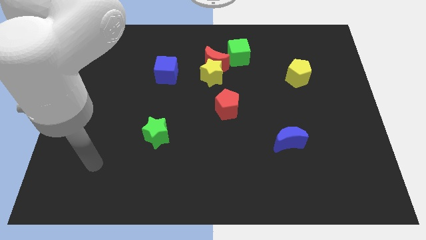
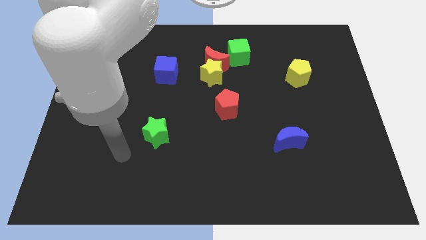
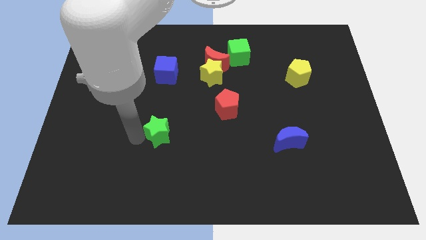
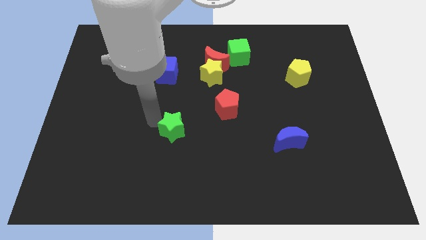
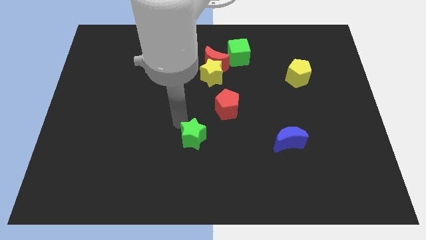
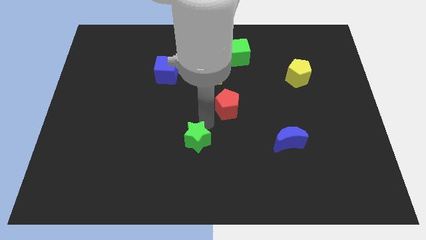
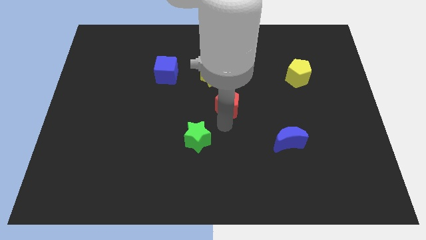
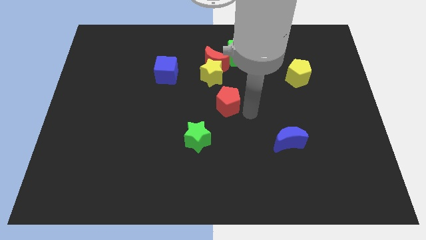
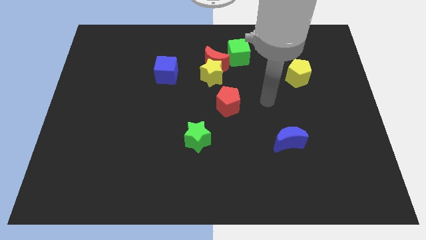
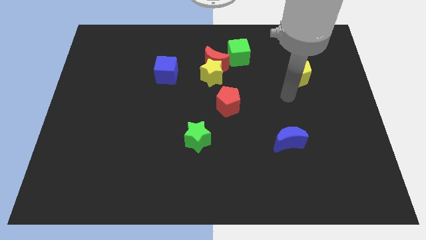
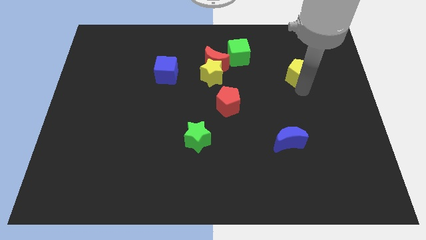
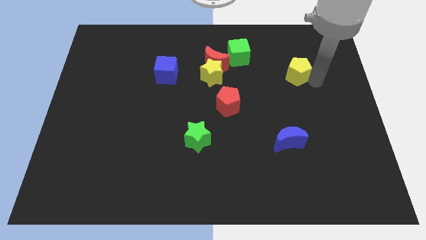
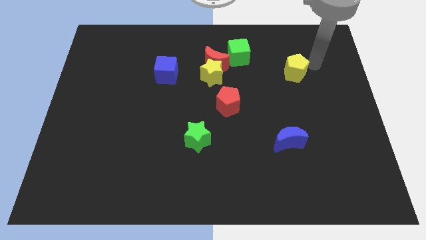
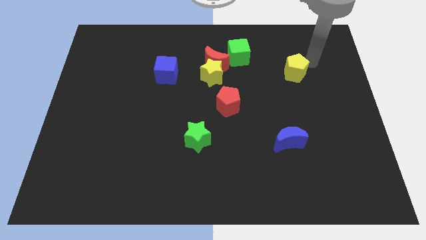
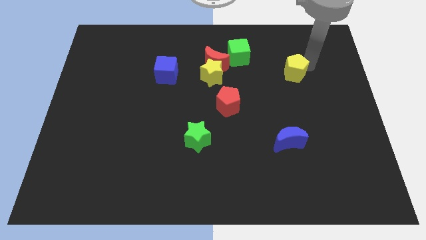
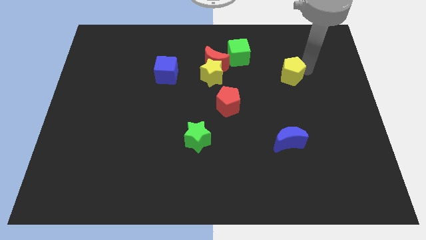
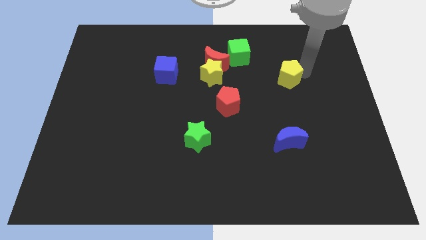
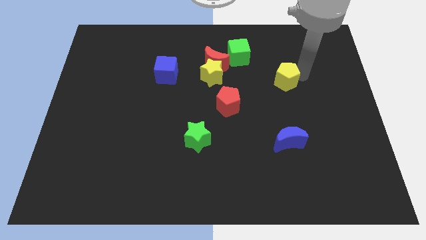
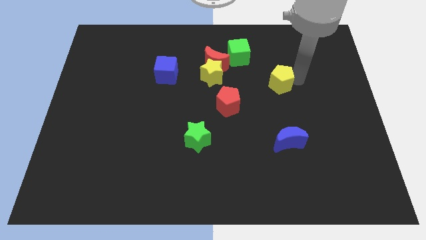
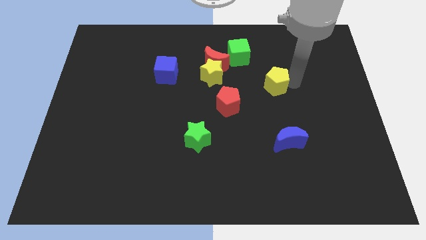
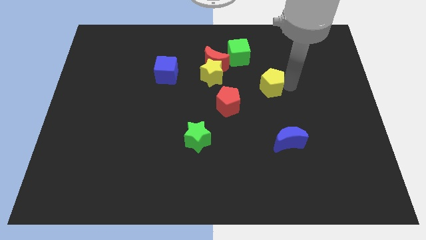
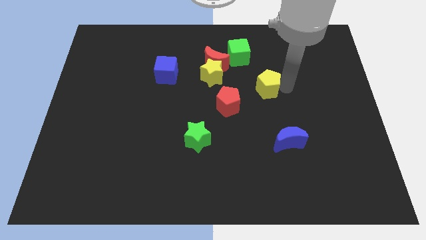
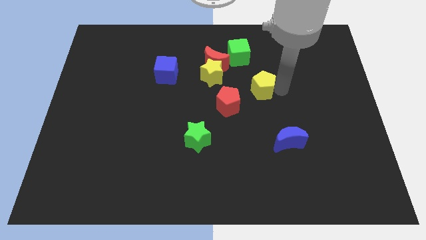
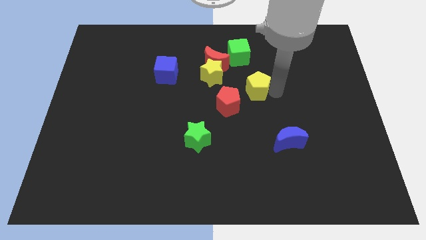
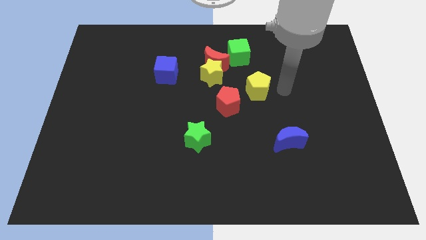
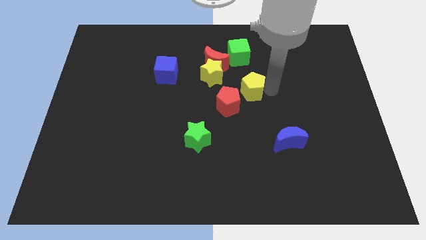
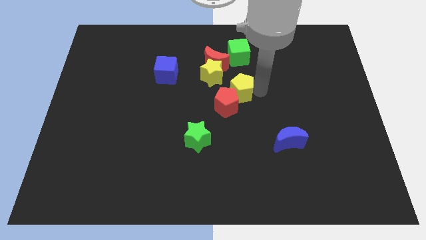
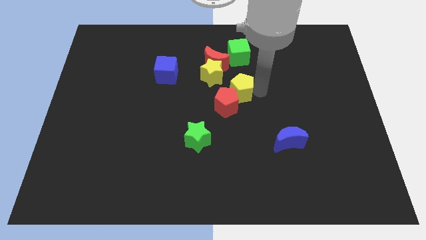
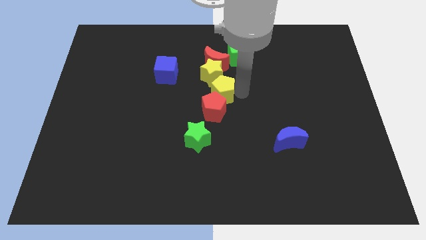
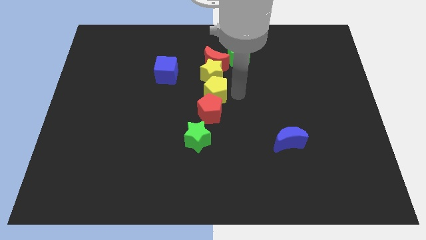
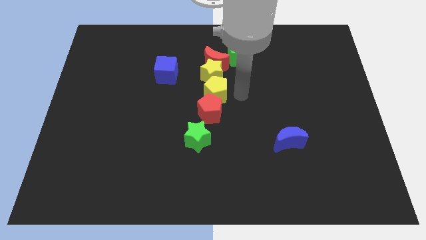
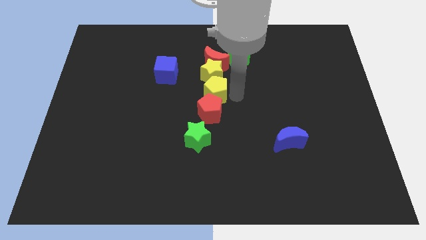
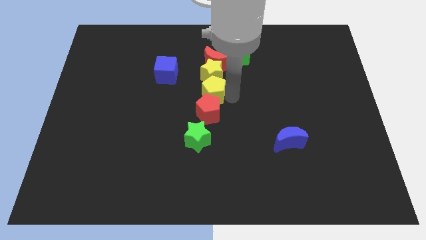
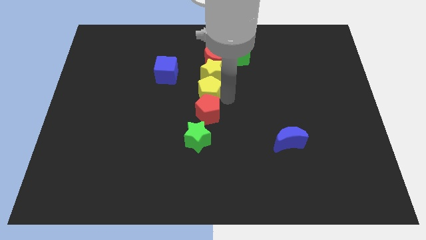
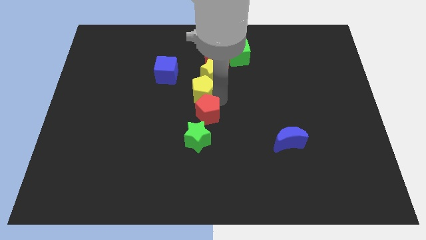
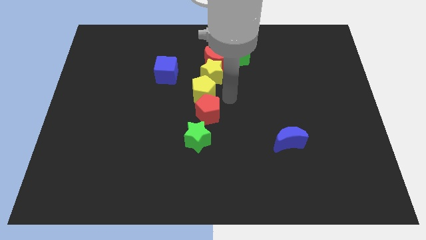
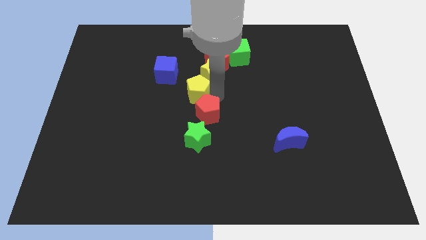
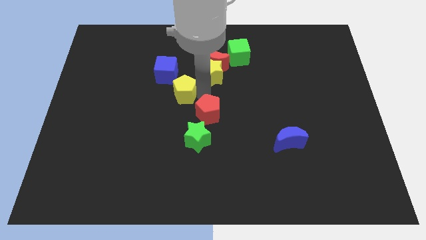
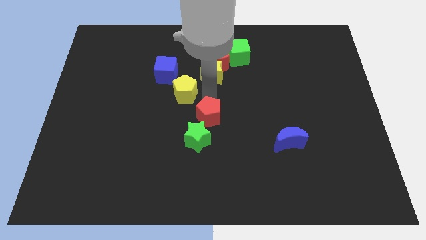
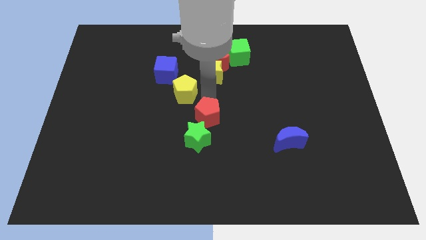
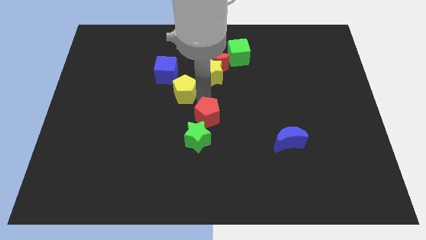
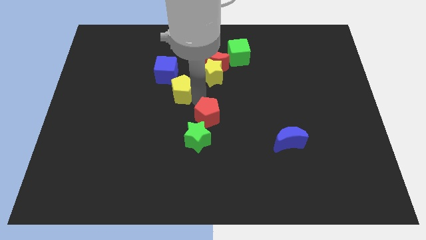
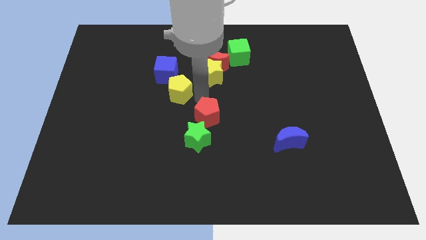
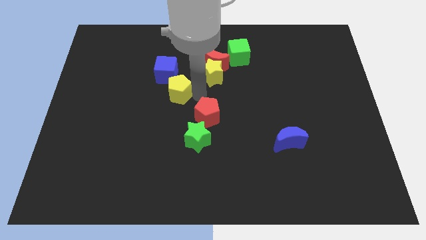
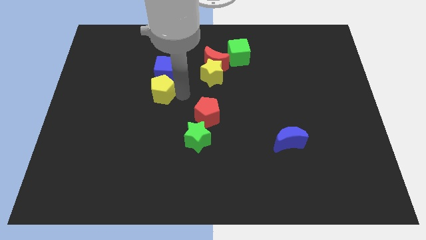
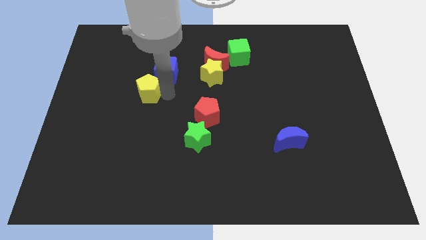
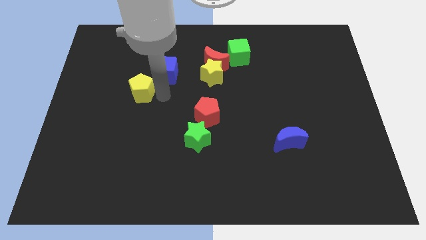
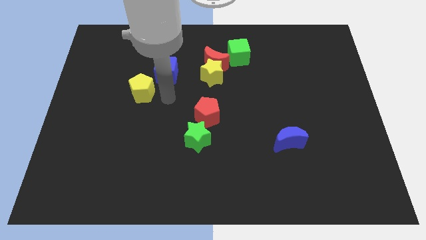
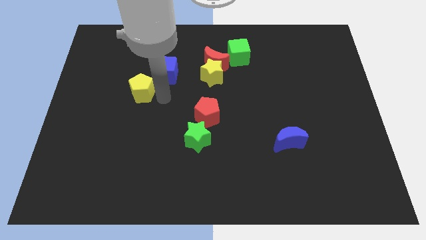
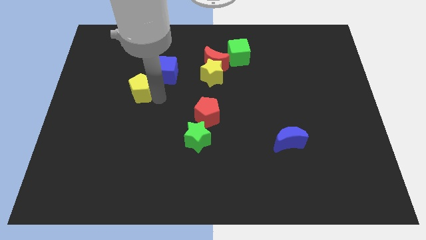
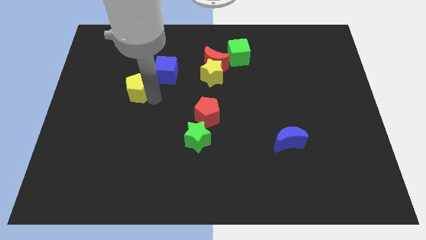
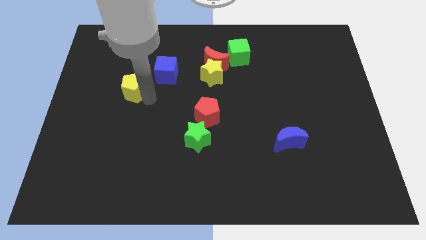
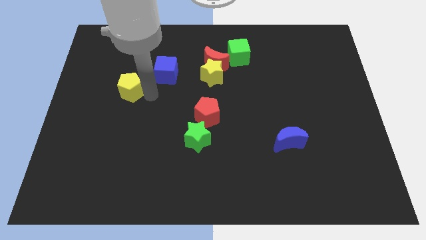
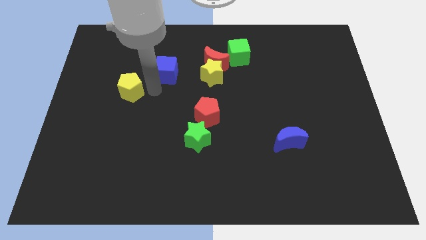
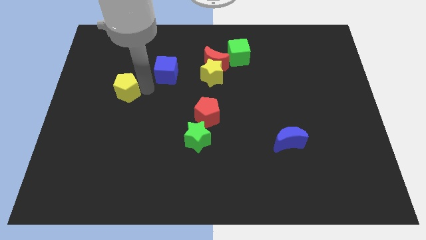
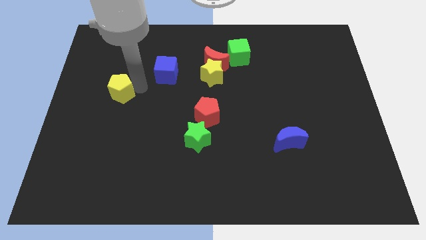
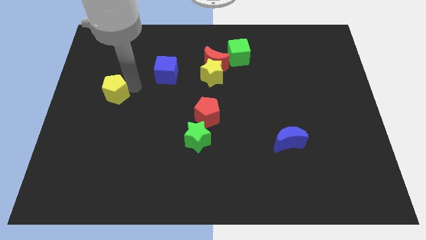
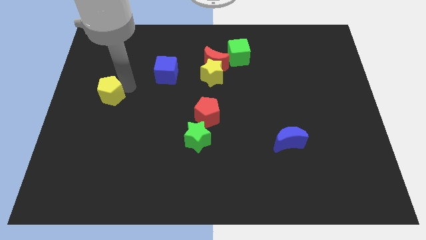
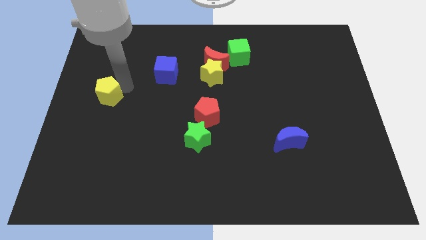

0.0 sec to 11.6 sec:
push the yellow pentagon to the center left
